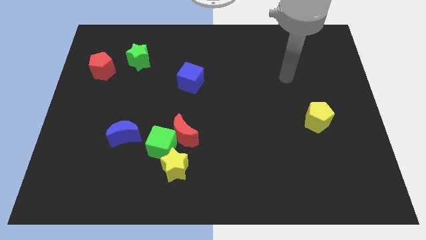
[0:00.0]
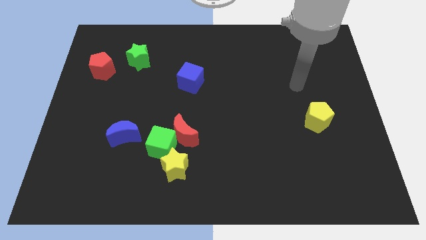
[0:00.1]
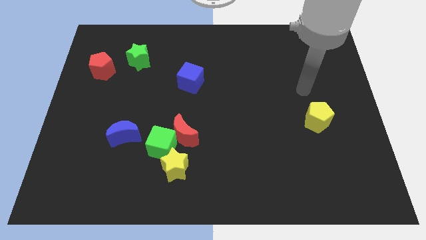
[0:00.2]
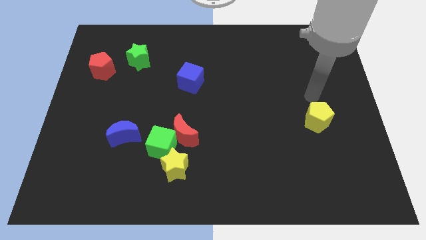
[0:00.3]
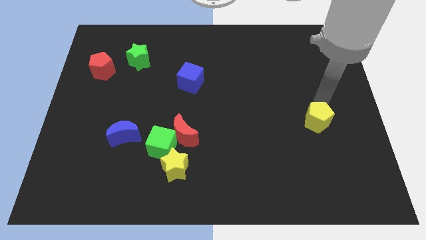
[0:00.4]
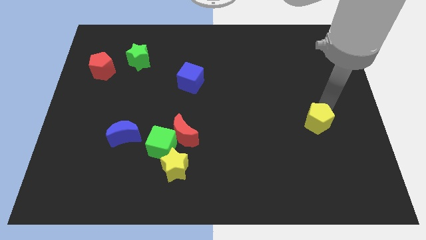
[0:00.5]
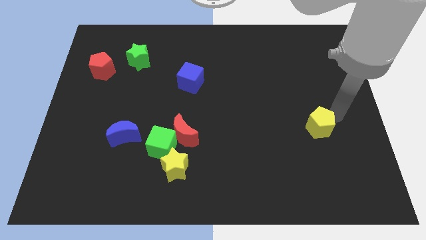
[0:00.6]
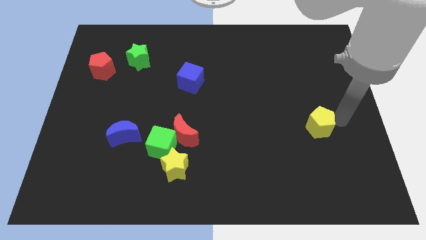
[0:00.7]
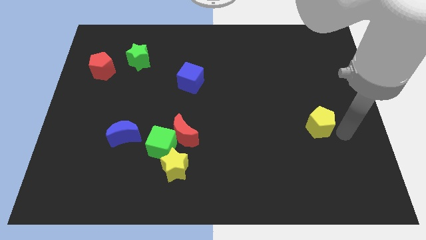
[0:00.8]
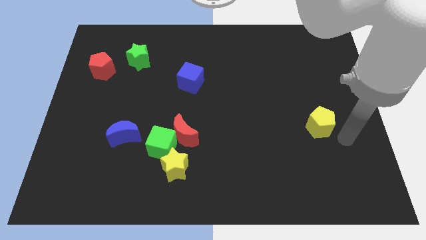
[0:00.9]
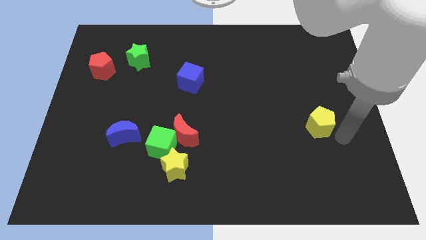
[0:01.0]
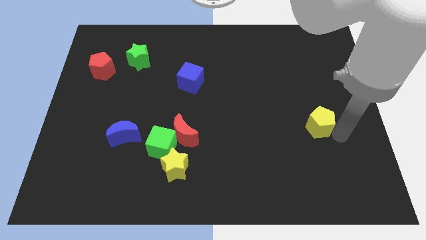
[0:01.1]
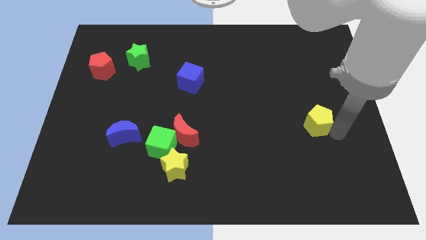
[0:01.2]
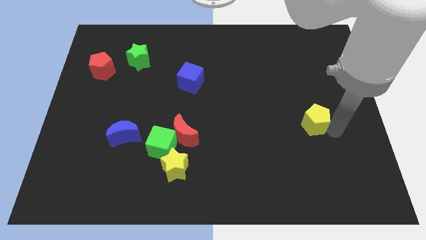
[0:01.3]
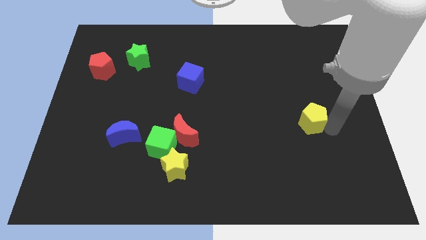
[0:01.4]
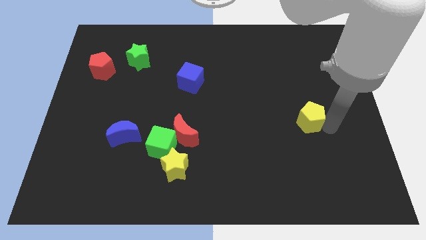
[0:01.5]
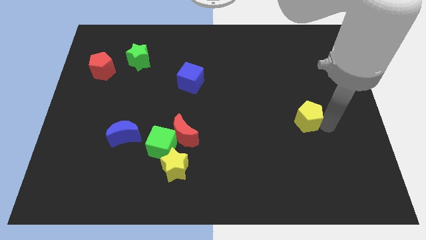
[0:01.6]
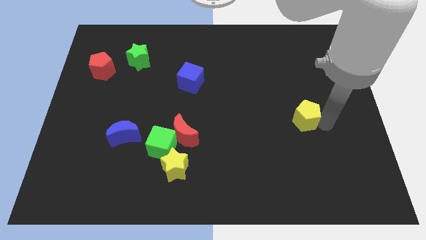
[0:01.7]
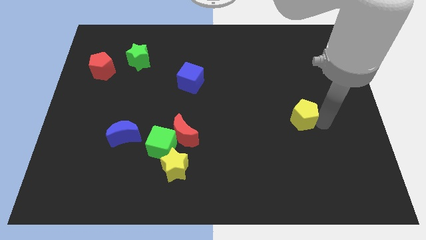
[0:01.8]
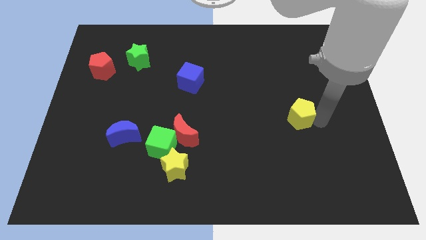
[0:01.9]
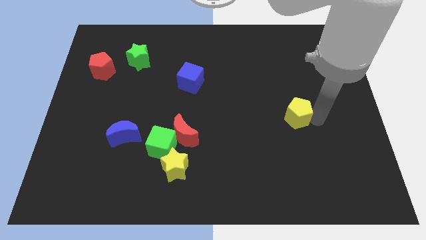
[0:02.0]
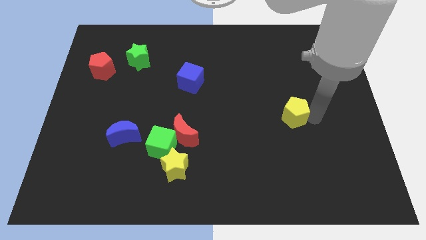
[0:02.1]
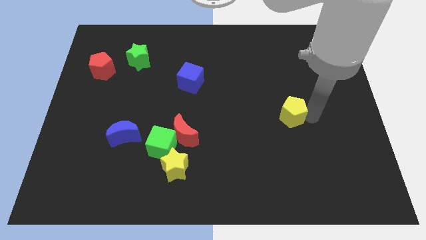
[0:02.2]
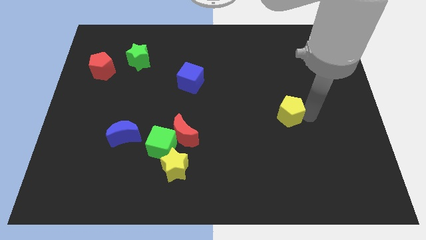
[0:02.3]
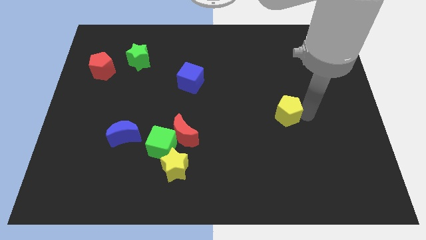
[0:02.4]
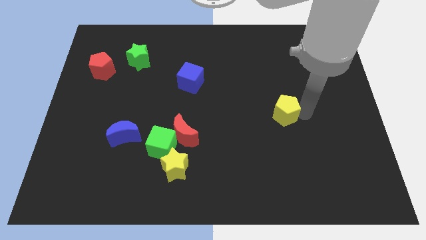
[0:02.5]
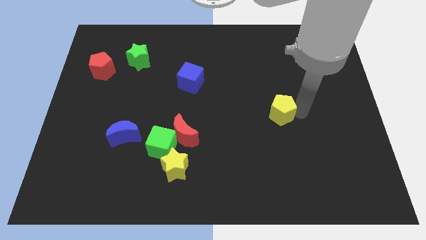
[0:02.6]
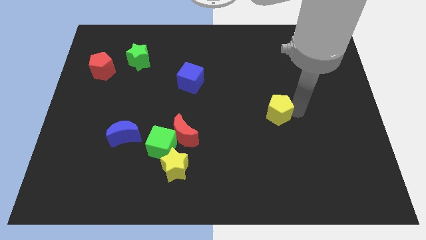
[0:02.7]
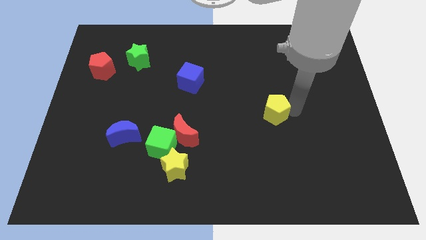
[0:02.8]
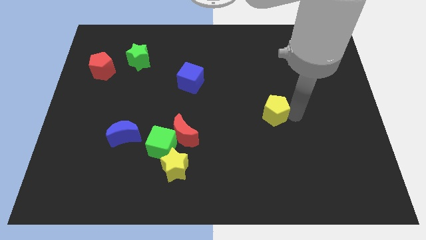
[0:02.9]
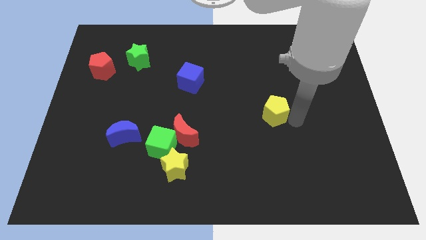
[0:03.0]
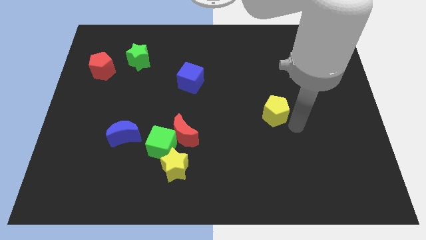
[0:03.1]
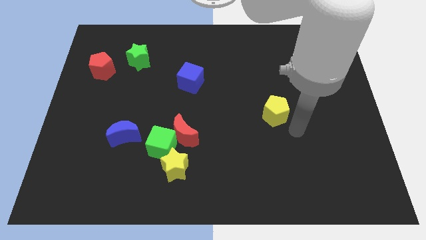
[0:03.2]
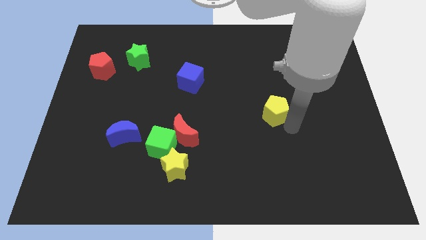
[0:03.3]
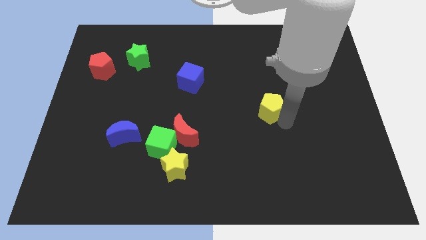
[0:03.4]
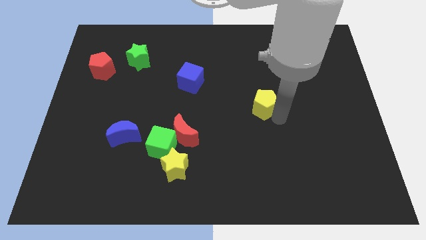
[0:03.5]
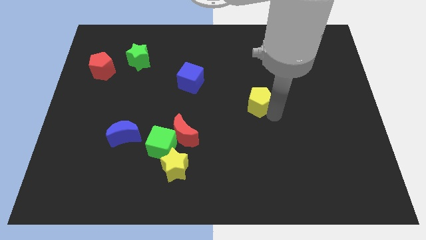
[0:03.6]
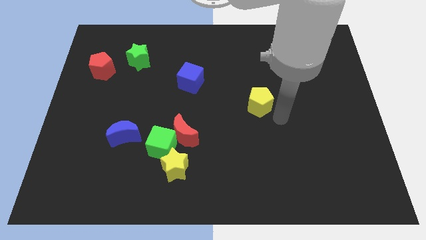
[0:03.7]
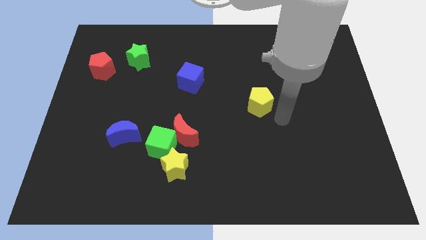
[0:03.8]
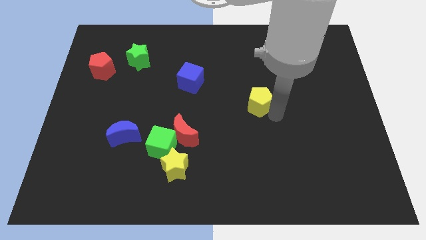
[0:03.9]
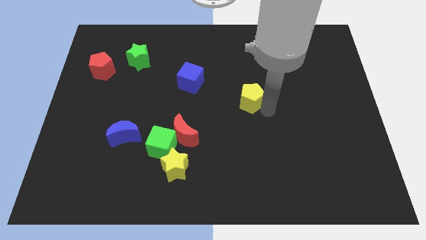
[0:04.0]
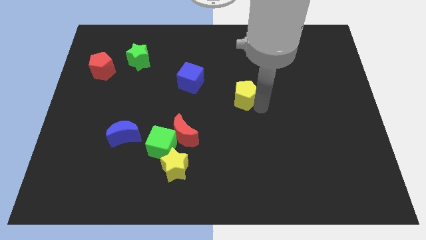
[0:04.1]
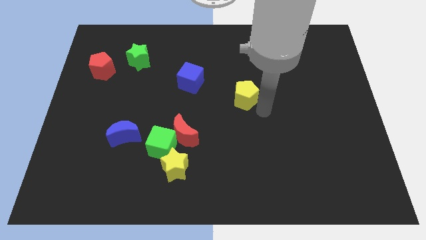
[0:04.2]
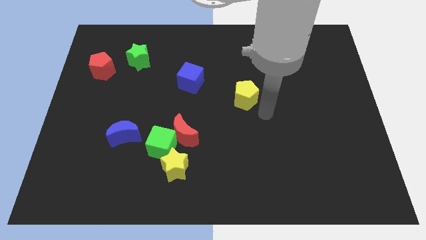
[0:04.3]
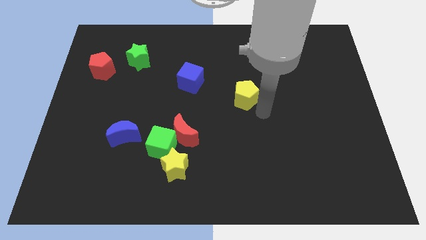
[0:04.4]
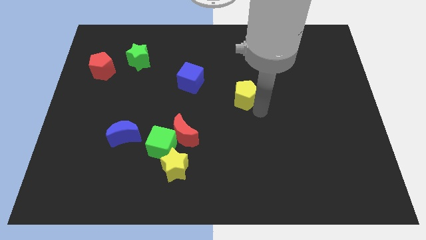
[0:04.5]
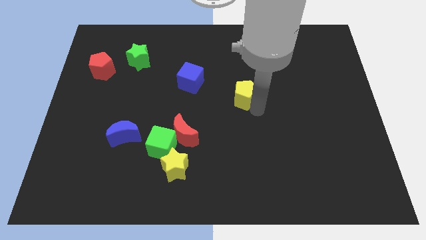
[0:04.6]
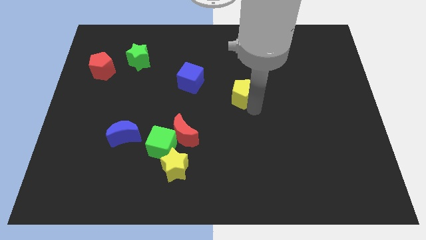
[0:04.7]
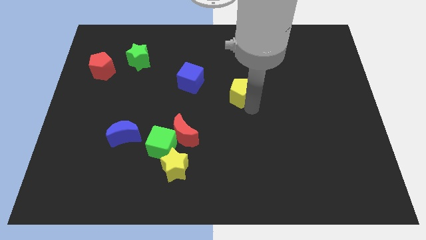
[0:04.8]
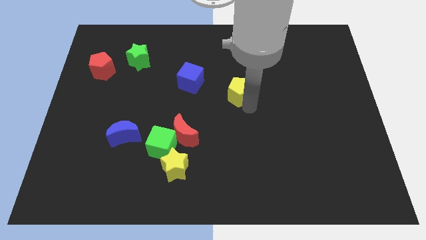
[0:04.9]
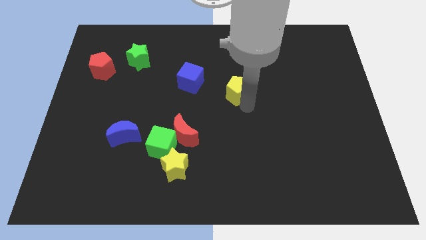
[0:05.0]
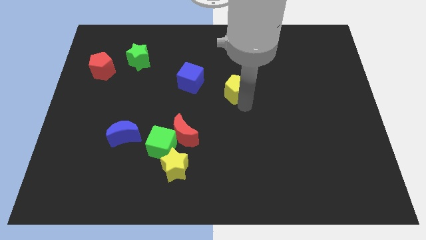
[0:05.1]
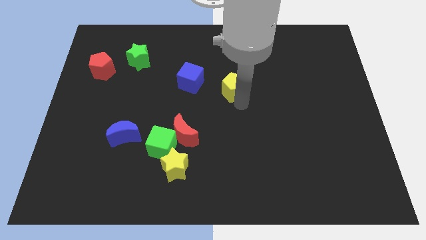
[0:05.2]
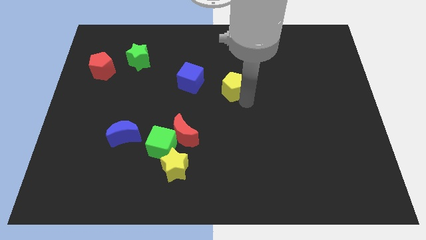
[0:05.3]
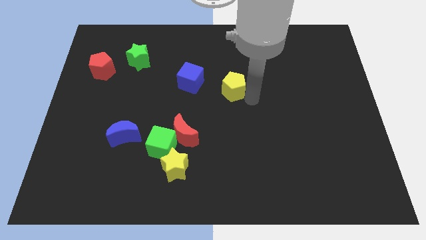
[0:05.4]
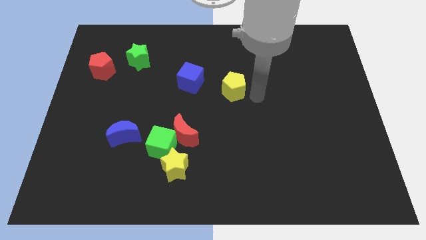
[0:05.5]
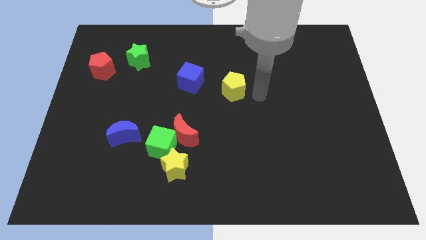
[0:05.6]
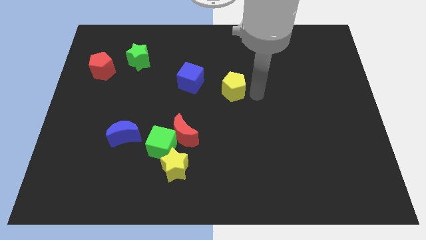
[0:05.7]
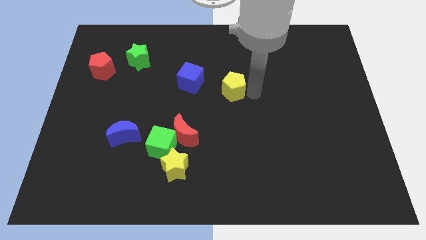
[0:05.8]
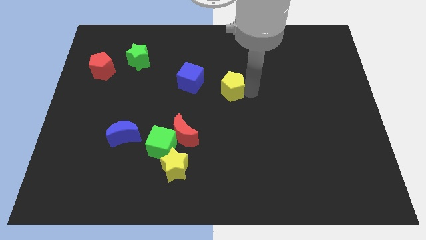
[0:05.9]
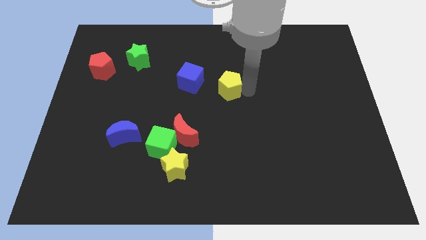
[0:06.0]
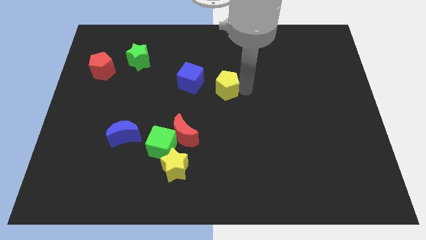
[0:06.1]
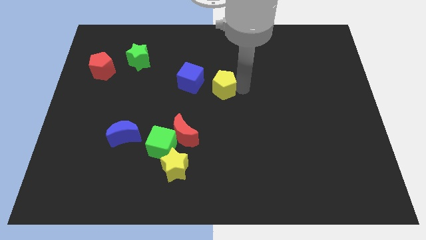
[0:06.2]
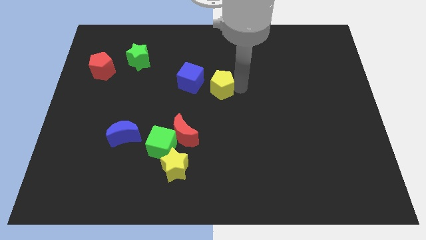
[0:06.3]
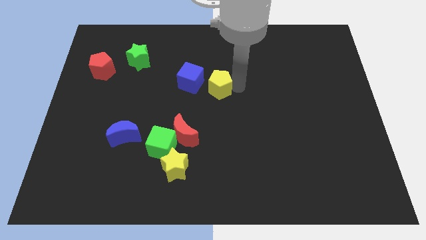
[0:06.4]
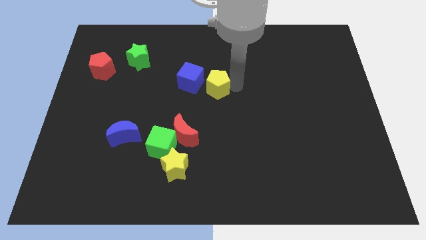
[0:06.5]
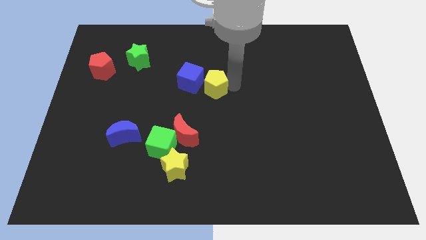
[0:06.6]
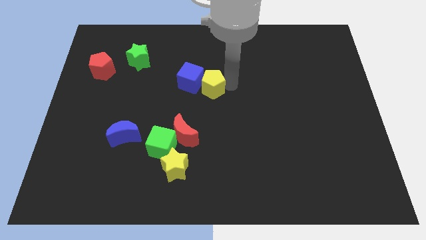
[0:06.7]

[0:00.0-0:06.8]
slide the yellow pentagon to the blue cube

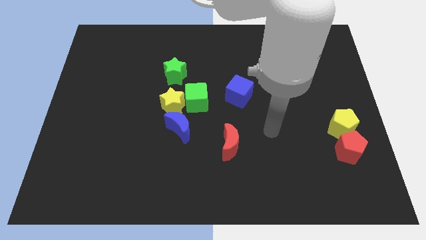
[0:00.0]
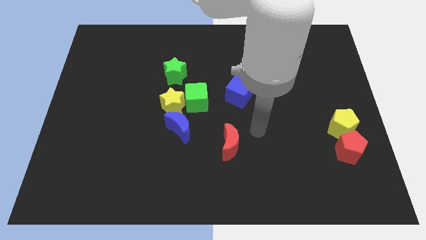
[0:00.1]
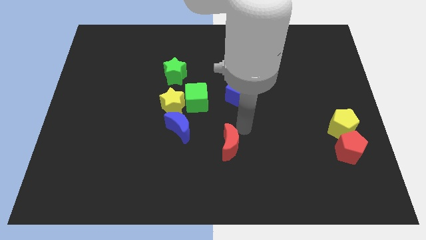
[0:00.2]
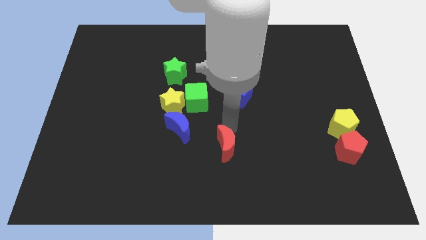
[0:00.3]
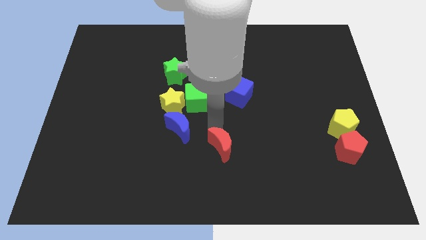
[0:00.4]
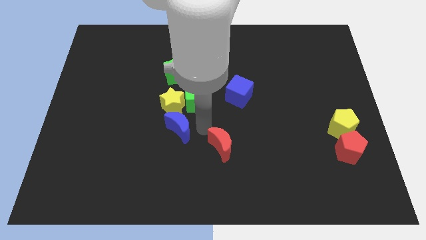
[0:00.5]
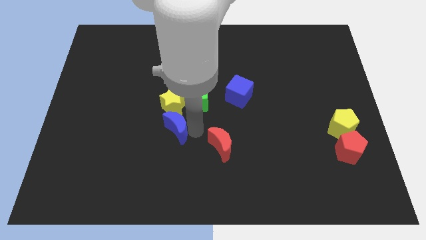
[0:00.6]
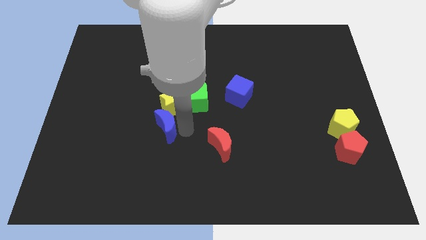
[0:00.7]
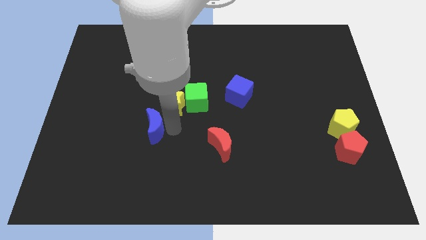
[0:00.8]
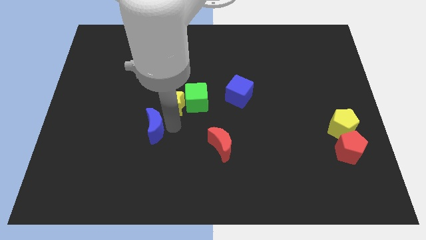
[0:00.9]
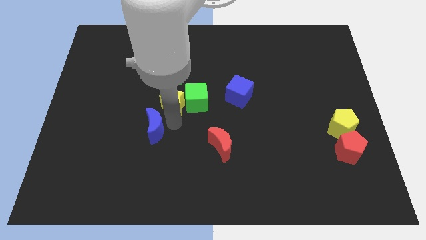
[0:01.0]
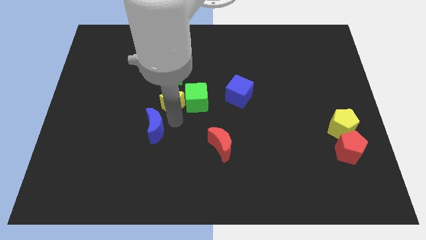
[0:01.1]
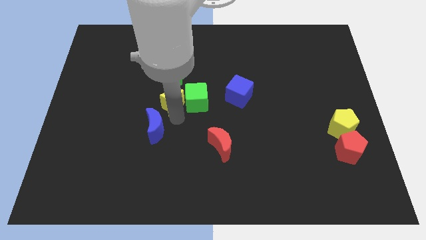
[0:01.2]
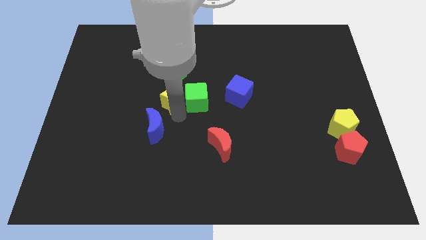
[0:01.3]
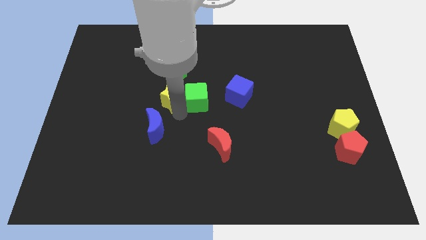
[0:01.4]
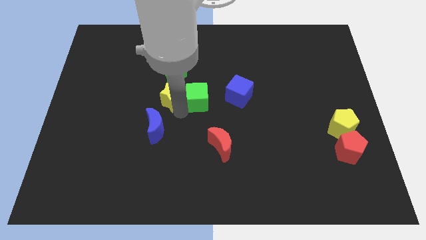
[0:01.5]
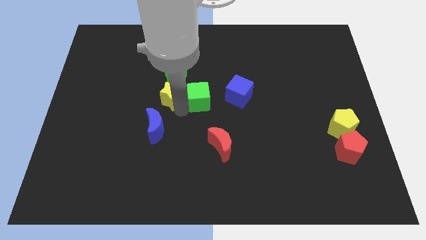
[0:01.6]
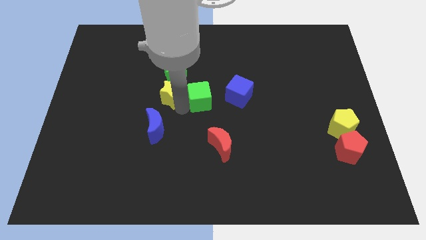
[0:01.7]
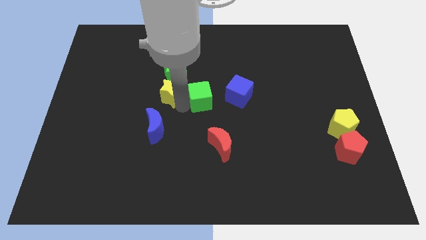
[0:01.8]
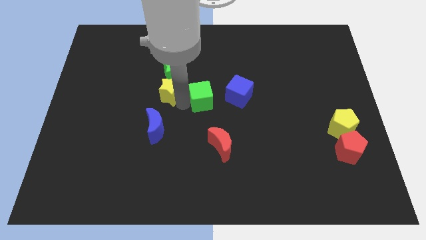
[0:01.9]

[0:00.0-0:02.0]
slide the yellow star next to the green star
